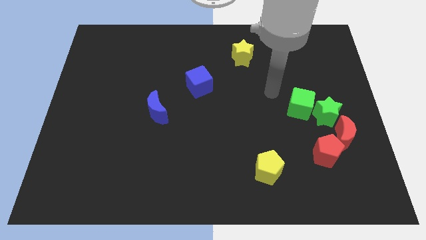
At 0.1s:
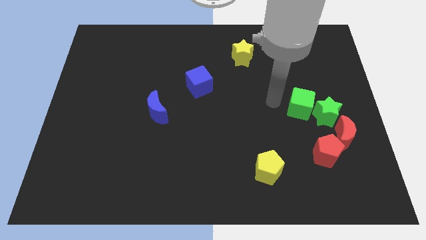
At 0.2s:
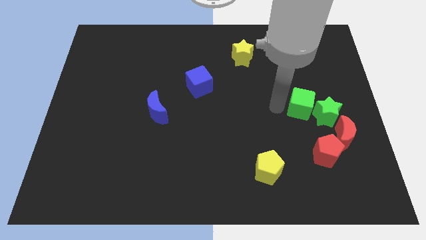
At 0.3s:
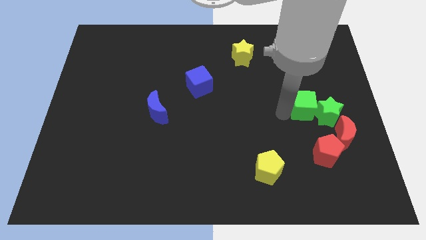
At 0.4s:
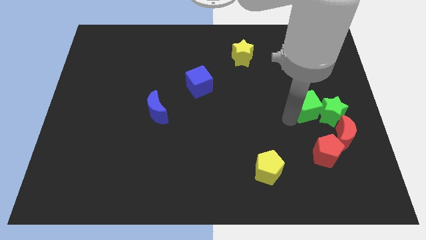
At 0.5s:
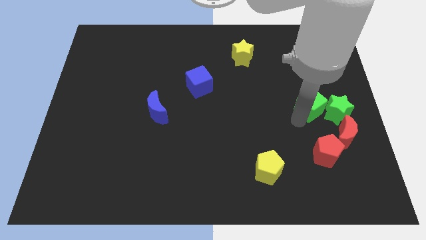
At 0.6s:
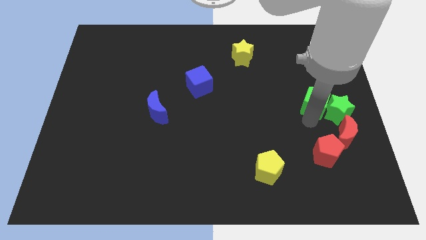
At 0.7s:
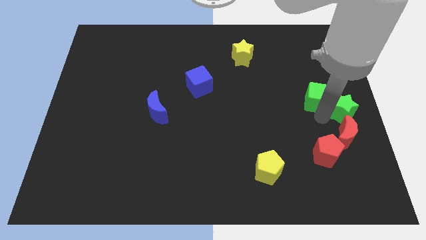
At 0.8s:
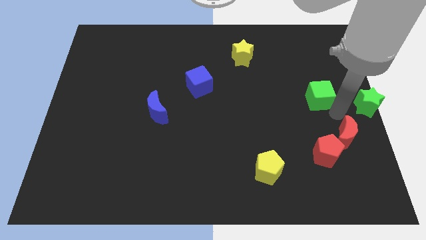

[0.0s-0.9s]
pull the green cube apart from the green star

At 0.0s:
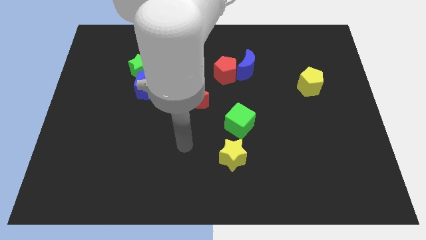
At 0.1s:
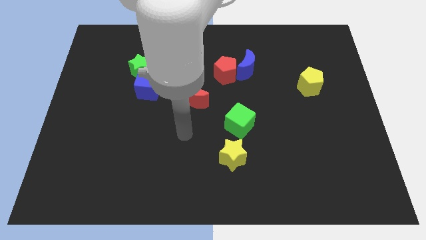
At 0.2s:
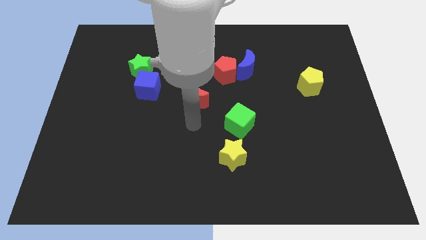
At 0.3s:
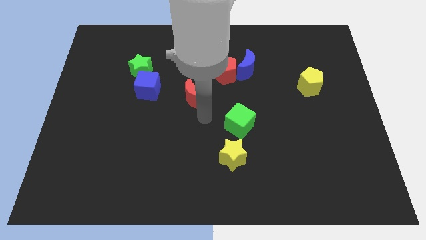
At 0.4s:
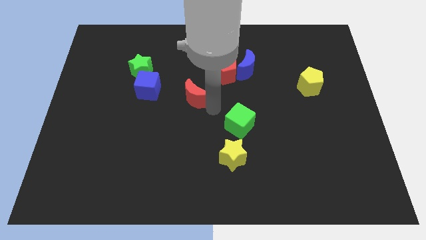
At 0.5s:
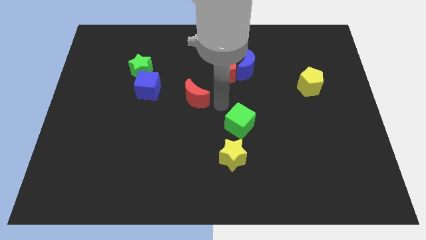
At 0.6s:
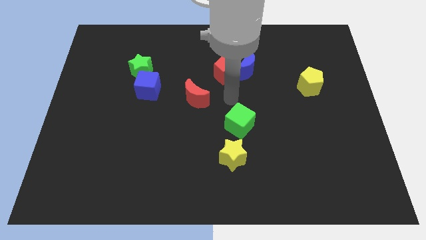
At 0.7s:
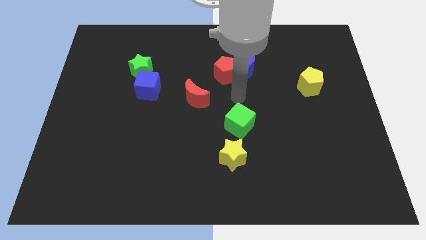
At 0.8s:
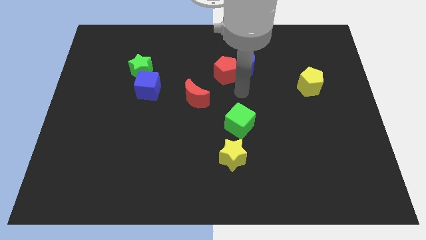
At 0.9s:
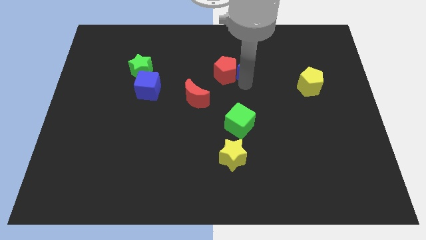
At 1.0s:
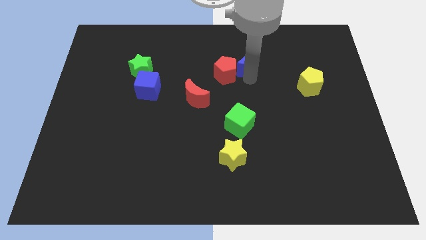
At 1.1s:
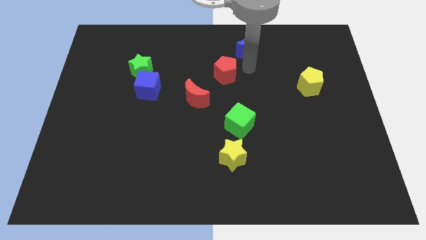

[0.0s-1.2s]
separate the red pentagon from the blue moon

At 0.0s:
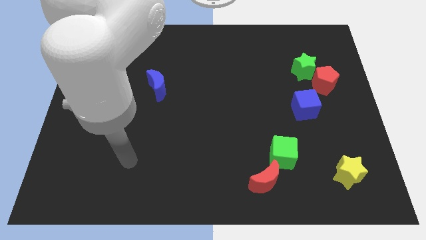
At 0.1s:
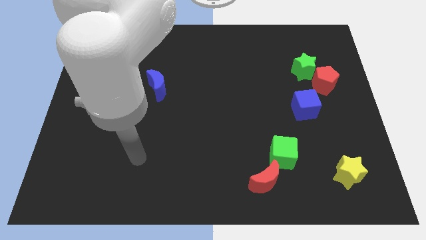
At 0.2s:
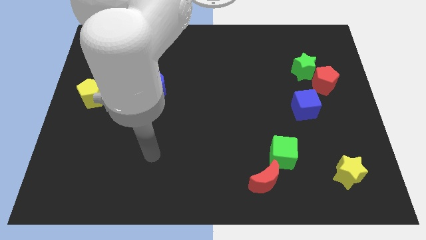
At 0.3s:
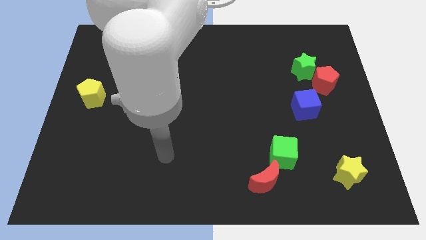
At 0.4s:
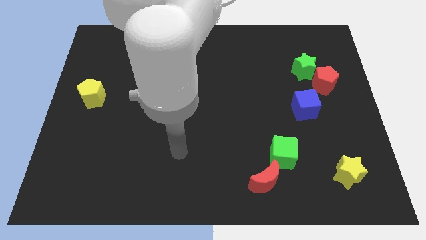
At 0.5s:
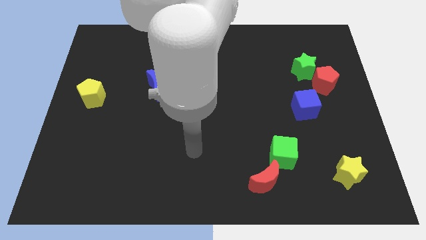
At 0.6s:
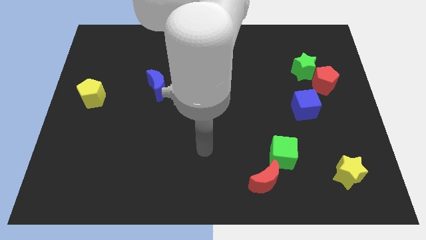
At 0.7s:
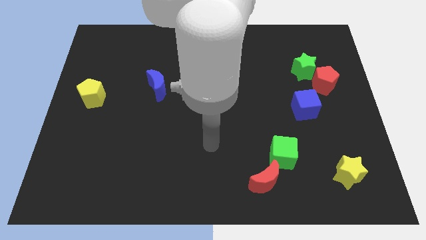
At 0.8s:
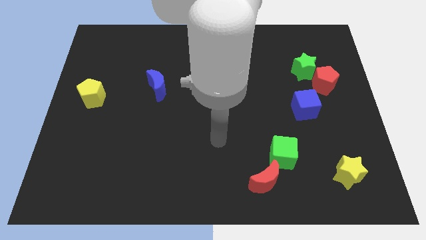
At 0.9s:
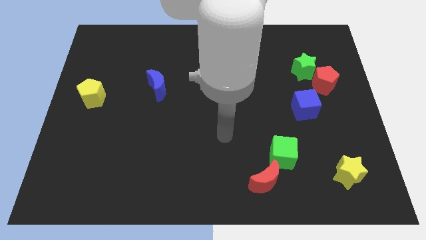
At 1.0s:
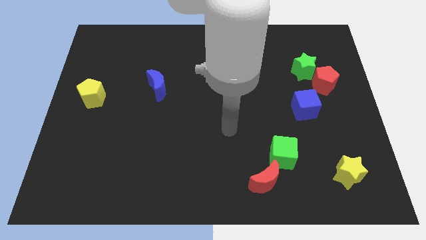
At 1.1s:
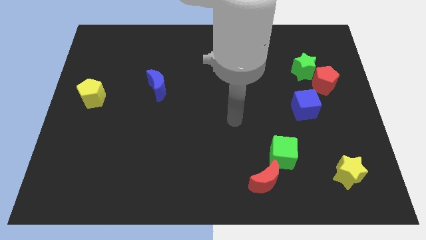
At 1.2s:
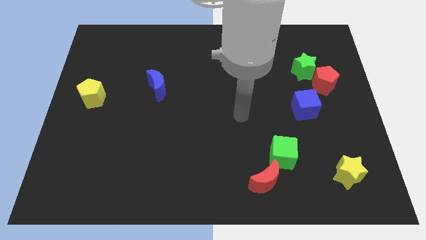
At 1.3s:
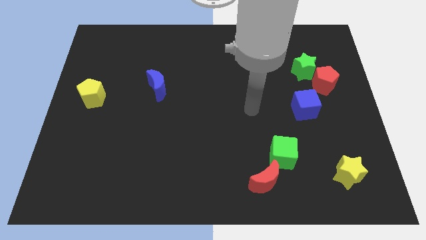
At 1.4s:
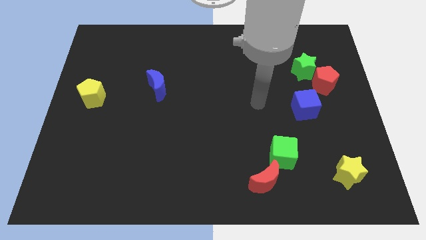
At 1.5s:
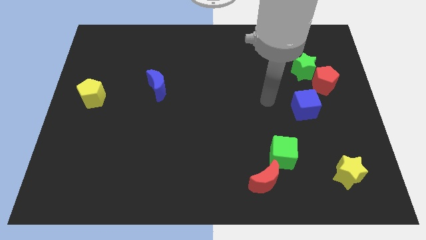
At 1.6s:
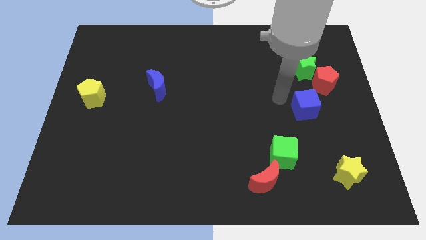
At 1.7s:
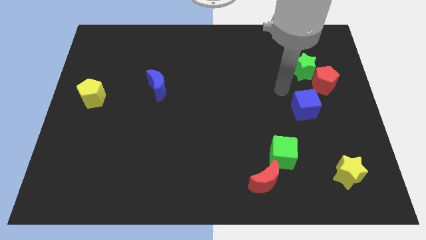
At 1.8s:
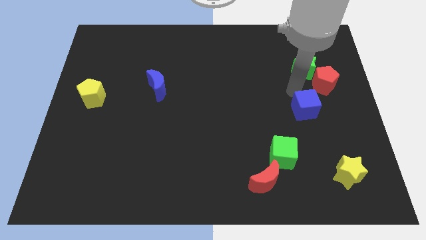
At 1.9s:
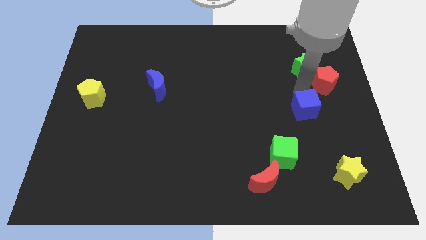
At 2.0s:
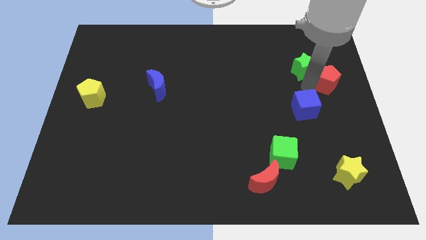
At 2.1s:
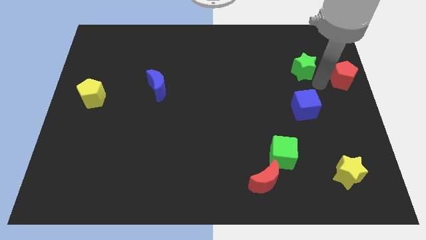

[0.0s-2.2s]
pull the green star apart from the red pentagon

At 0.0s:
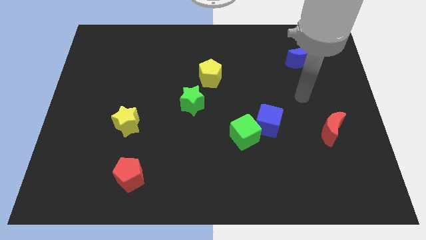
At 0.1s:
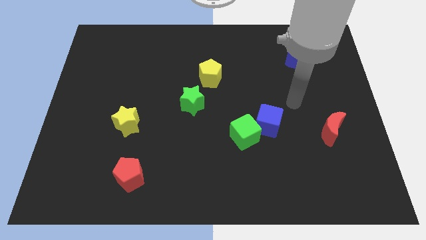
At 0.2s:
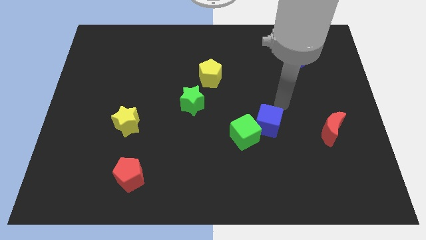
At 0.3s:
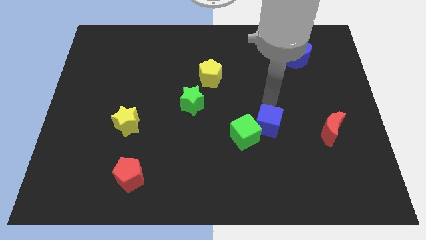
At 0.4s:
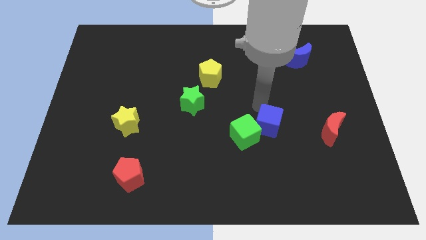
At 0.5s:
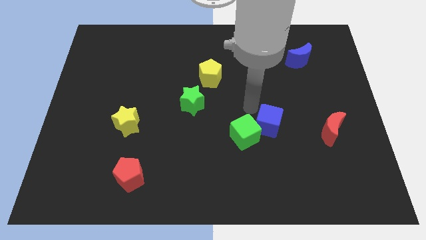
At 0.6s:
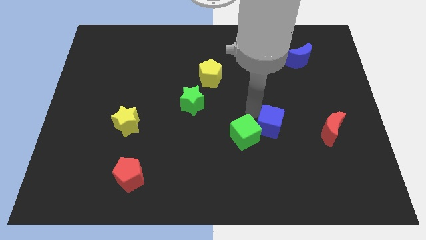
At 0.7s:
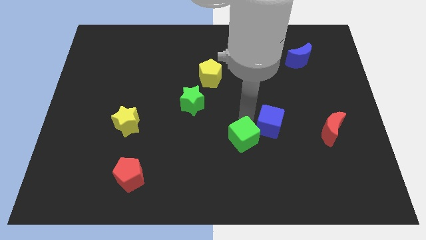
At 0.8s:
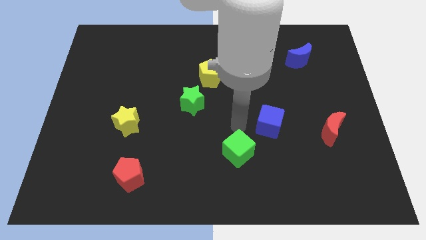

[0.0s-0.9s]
pull the blue cube apart from the green cube

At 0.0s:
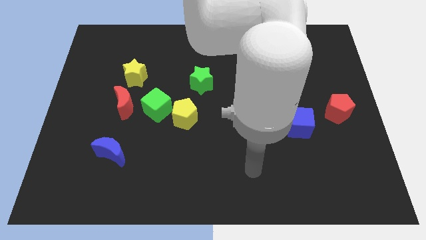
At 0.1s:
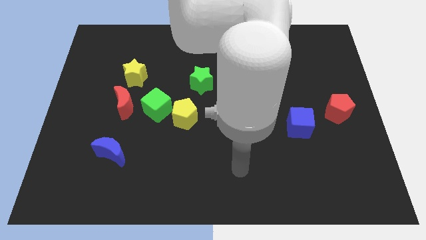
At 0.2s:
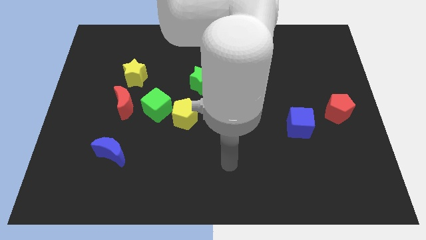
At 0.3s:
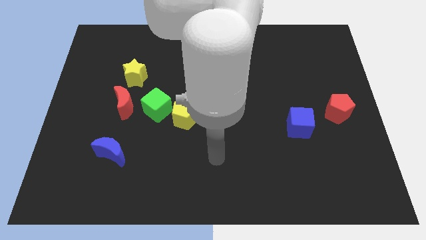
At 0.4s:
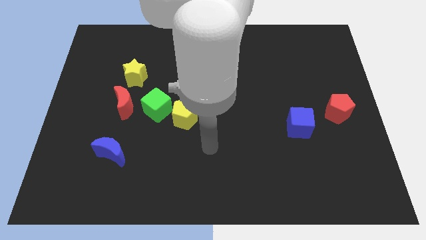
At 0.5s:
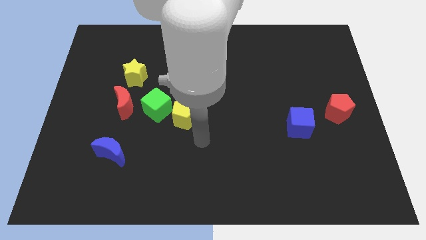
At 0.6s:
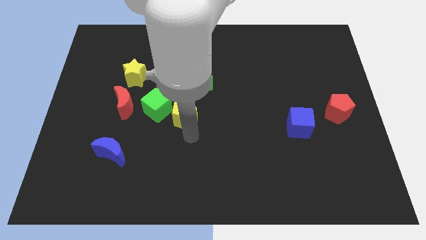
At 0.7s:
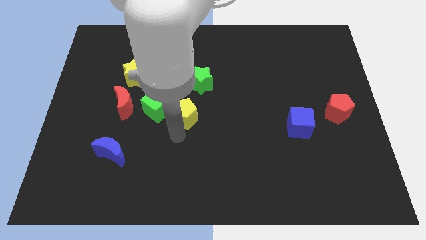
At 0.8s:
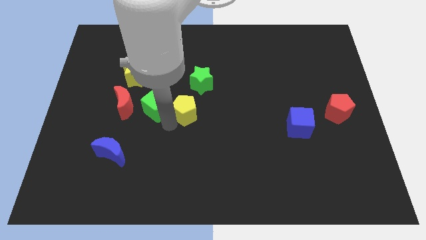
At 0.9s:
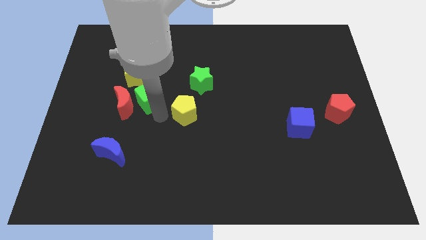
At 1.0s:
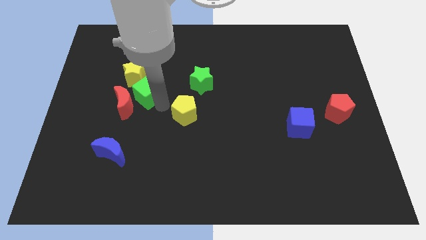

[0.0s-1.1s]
pull the yellow pentagon apart from the green cube

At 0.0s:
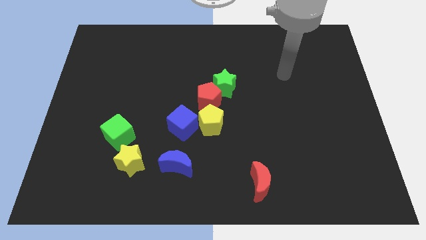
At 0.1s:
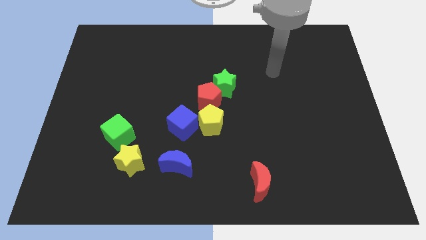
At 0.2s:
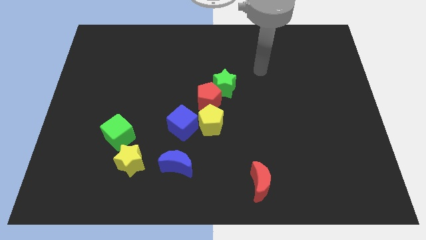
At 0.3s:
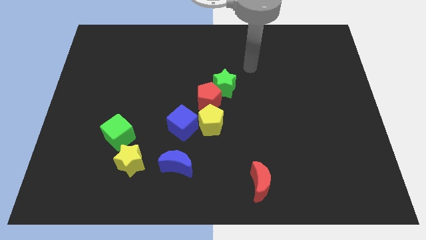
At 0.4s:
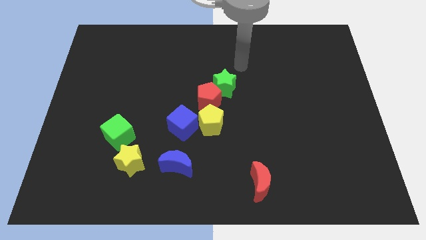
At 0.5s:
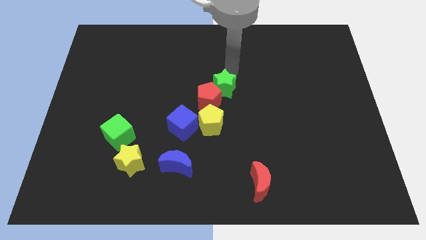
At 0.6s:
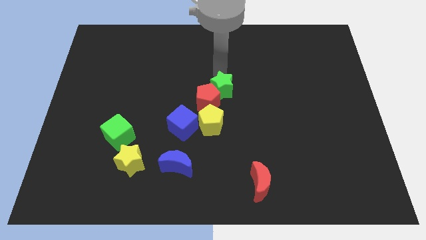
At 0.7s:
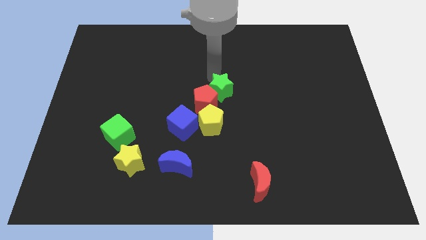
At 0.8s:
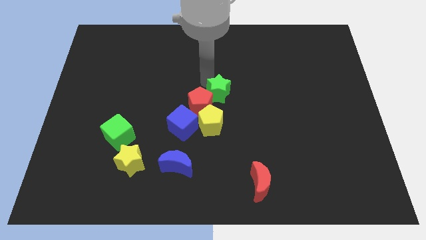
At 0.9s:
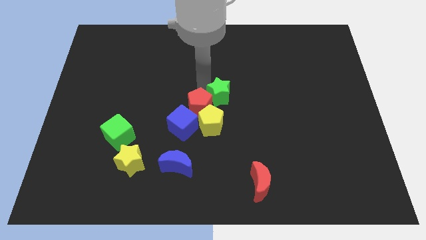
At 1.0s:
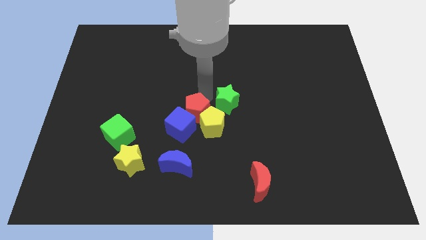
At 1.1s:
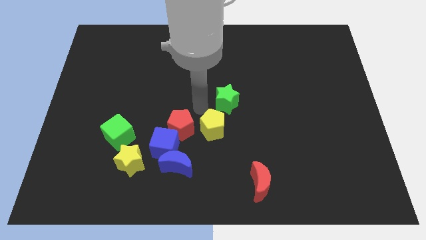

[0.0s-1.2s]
move the green star away from the red pentagon

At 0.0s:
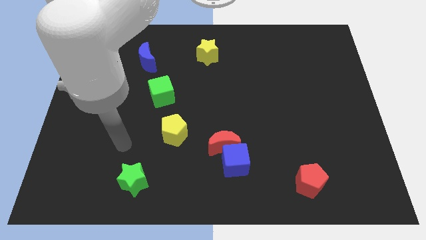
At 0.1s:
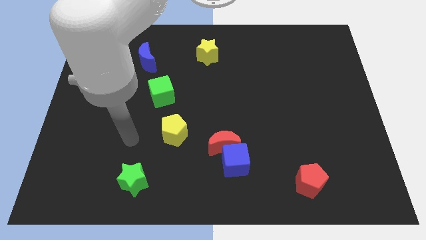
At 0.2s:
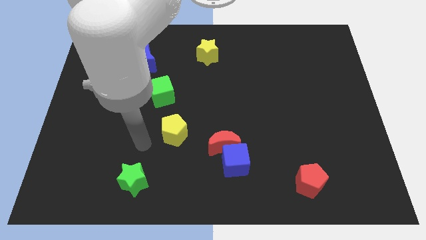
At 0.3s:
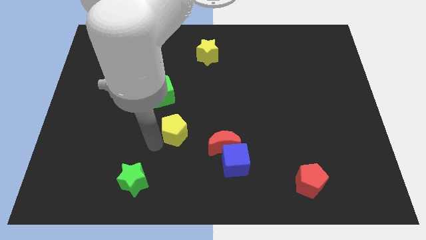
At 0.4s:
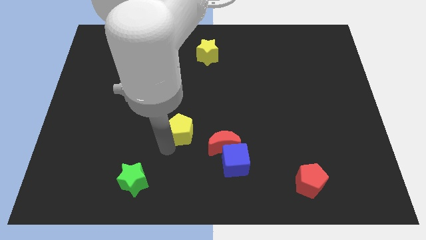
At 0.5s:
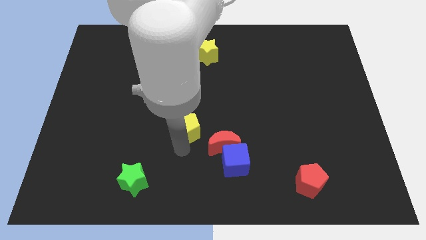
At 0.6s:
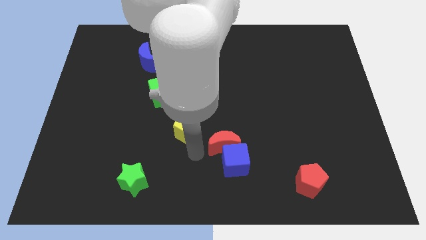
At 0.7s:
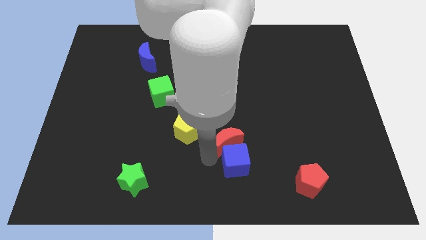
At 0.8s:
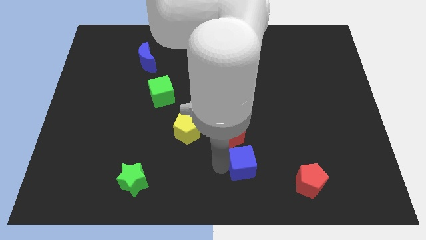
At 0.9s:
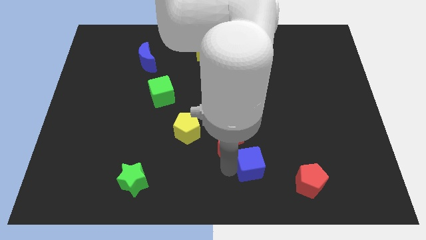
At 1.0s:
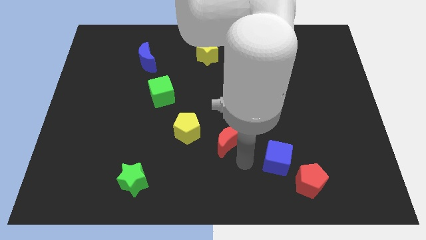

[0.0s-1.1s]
move the red moon away from the blue cube

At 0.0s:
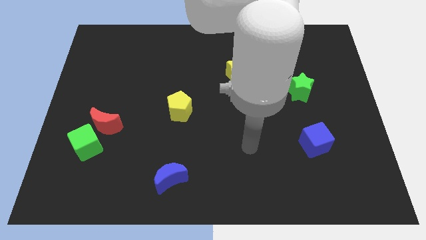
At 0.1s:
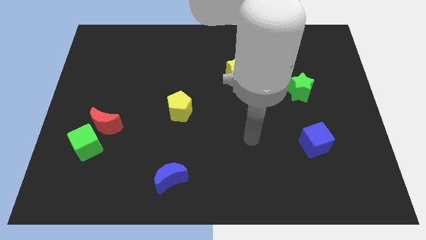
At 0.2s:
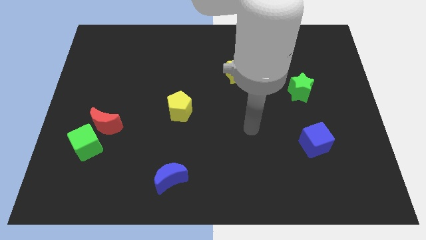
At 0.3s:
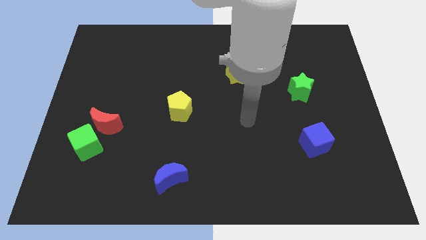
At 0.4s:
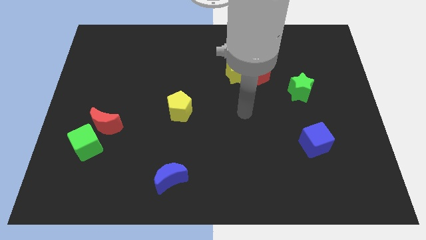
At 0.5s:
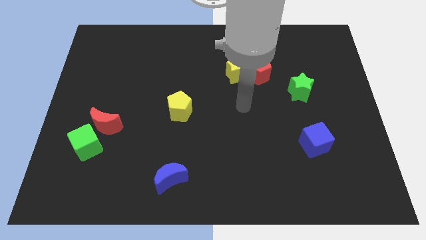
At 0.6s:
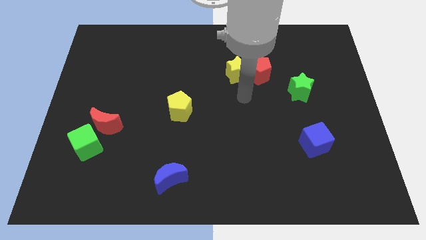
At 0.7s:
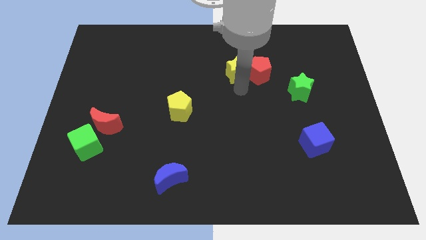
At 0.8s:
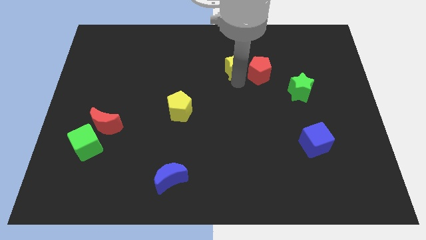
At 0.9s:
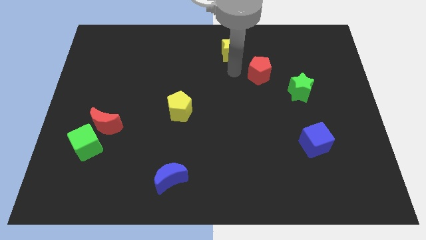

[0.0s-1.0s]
separate the red pentagon from the yellow star
